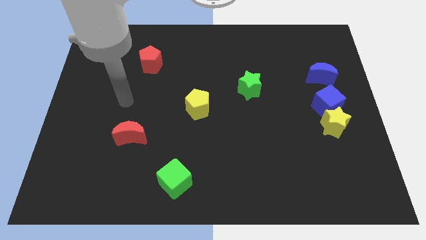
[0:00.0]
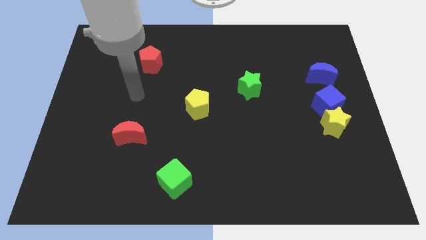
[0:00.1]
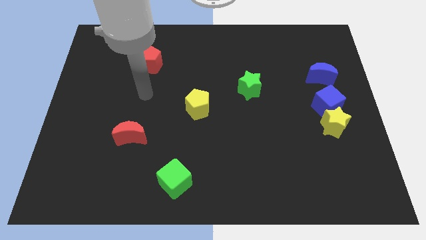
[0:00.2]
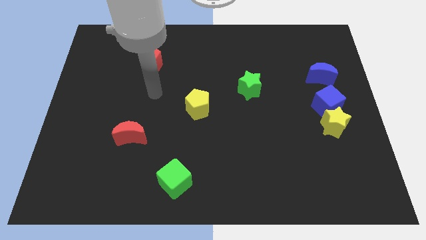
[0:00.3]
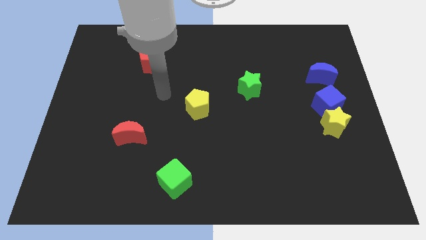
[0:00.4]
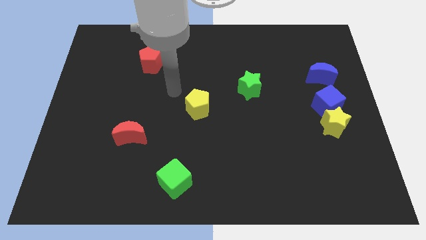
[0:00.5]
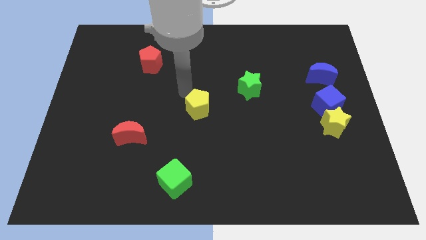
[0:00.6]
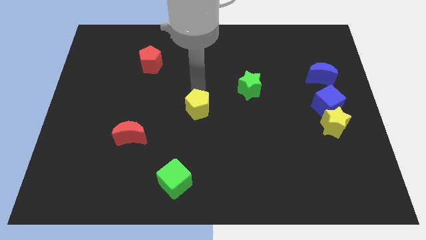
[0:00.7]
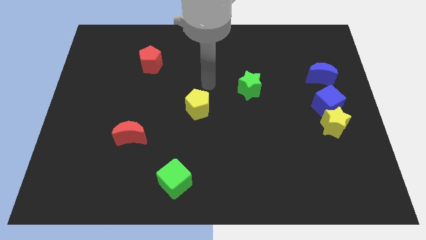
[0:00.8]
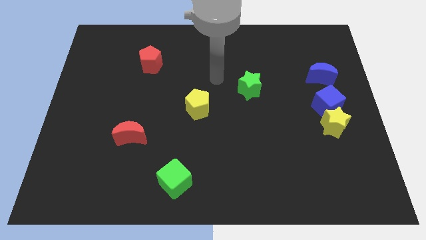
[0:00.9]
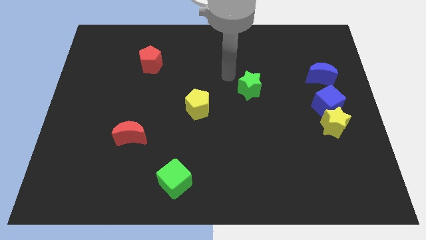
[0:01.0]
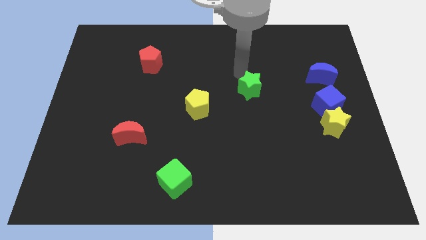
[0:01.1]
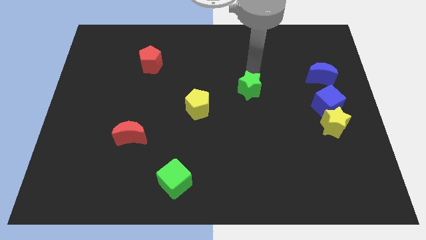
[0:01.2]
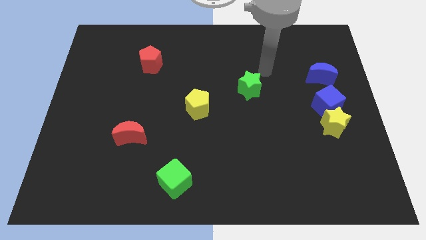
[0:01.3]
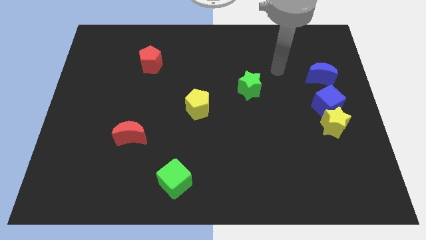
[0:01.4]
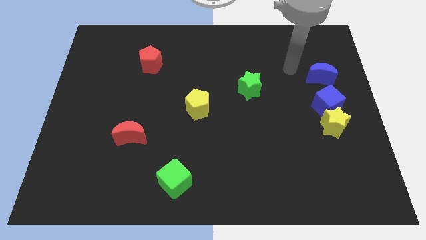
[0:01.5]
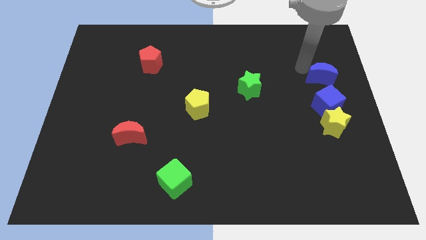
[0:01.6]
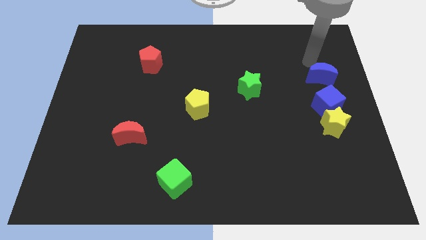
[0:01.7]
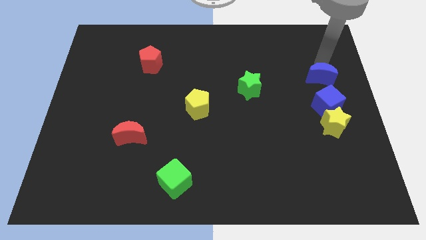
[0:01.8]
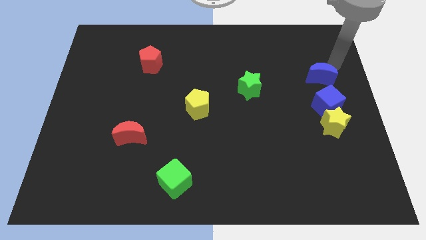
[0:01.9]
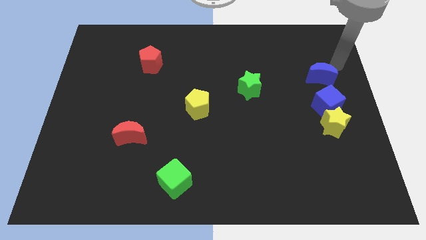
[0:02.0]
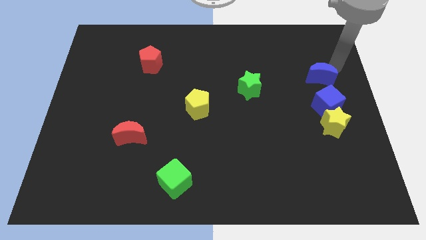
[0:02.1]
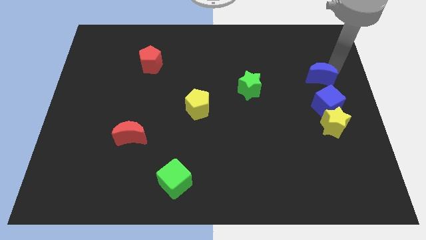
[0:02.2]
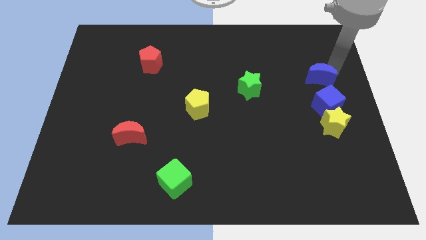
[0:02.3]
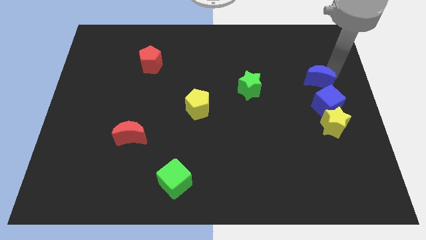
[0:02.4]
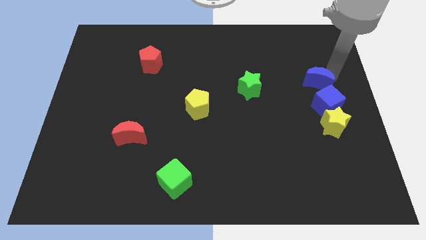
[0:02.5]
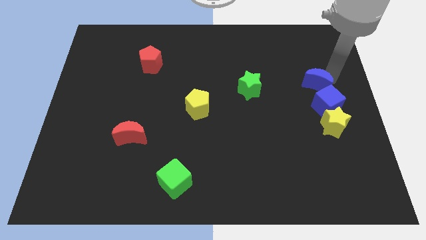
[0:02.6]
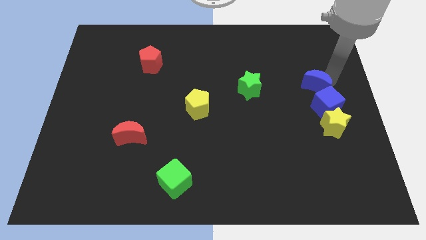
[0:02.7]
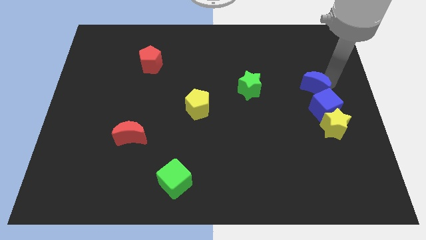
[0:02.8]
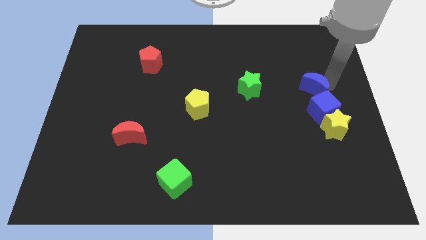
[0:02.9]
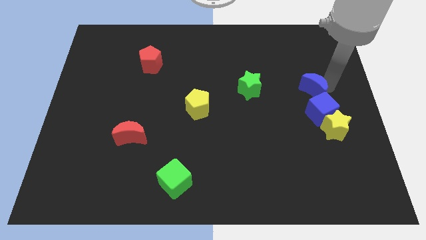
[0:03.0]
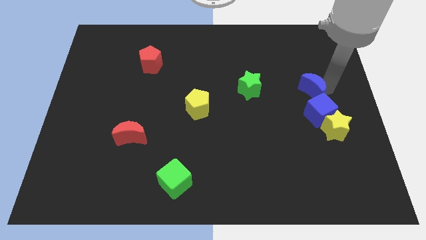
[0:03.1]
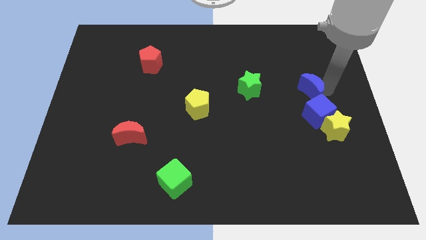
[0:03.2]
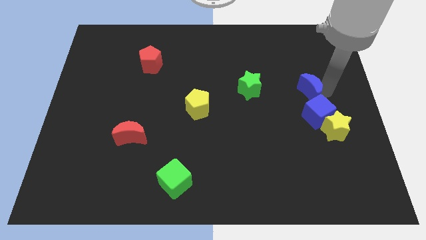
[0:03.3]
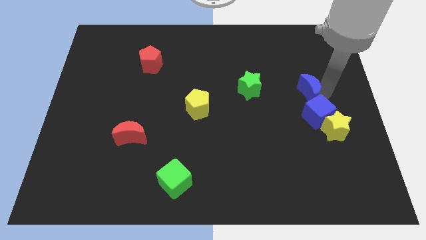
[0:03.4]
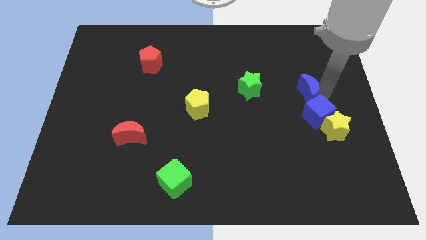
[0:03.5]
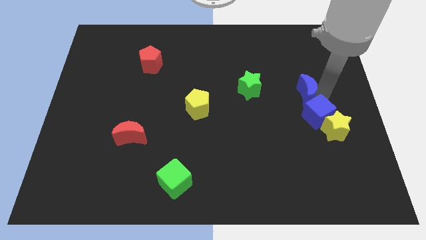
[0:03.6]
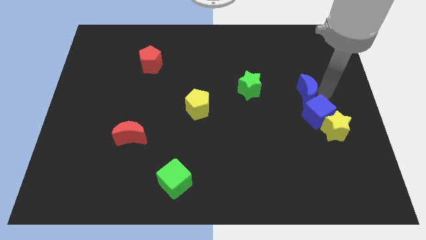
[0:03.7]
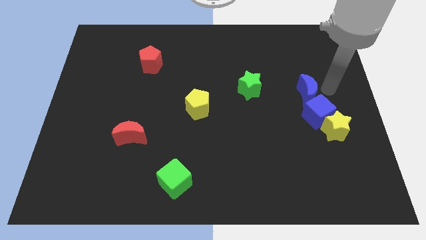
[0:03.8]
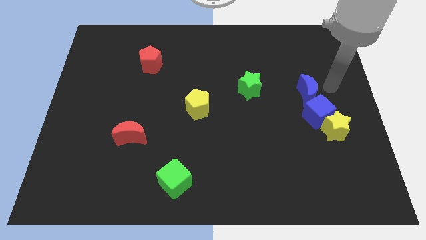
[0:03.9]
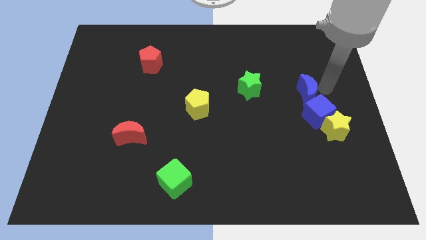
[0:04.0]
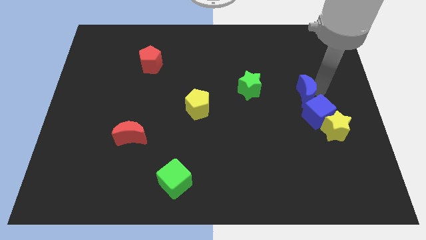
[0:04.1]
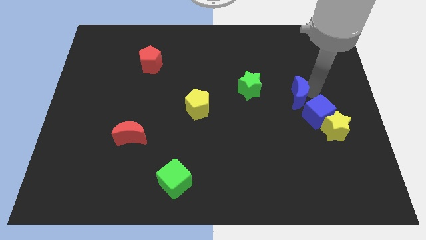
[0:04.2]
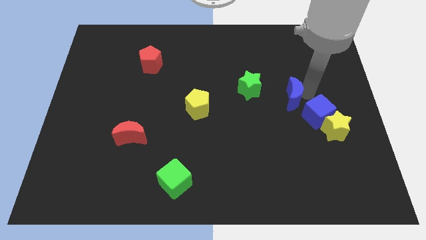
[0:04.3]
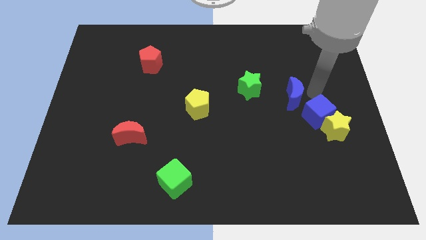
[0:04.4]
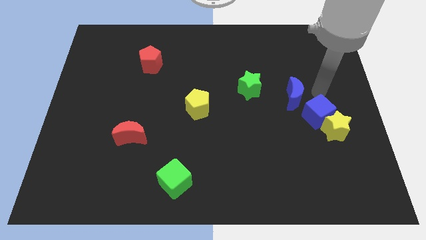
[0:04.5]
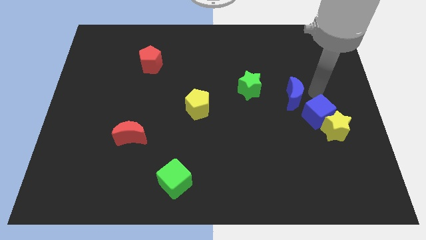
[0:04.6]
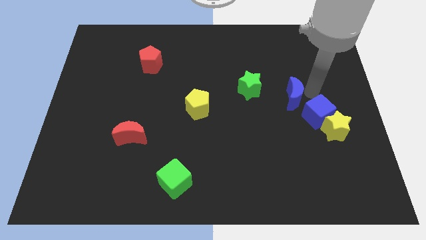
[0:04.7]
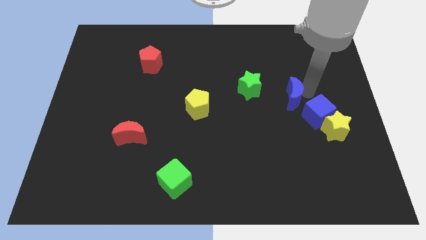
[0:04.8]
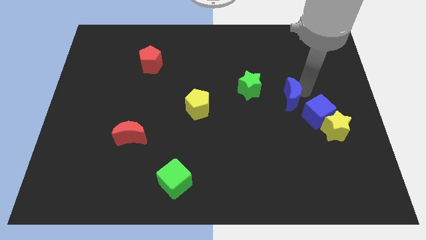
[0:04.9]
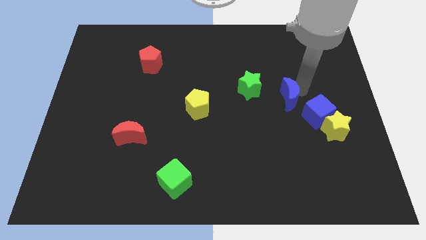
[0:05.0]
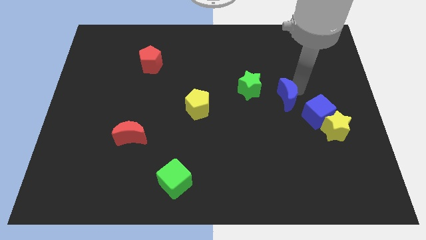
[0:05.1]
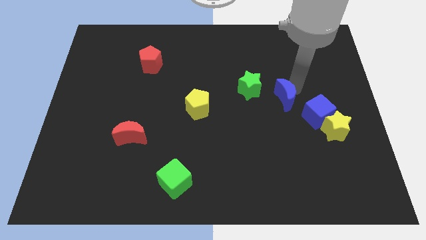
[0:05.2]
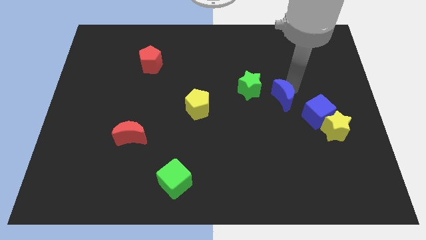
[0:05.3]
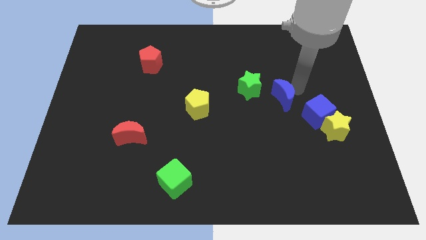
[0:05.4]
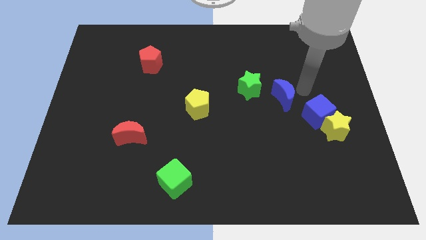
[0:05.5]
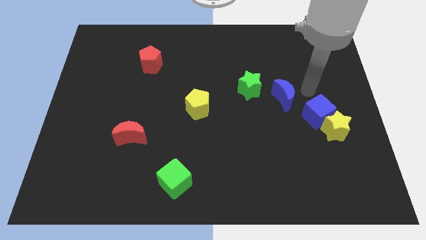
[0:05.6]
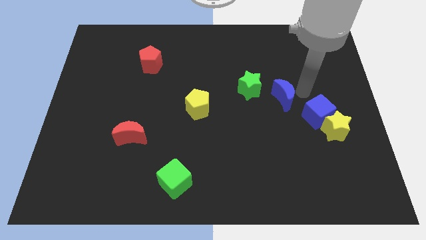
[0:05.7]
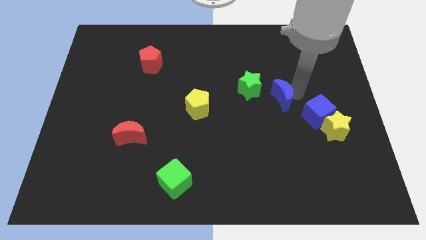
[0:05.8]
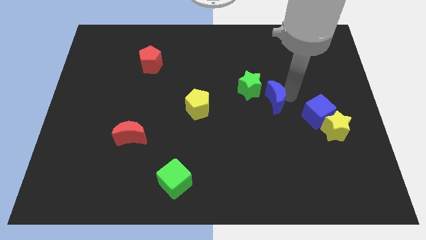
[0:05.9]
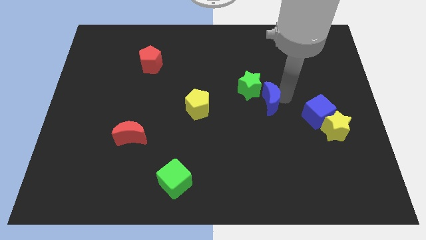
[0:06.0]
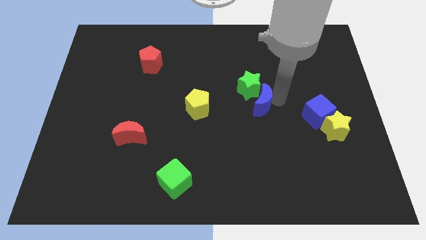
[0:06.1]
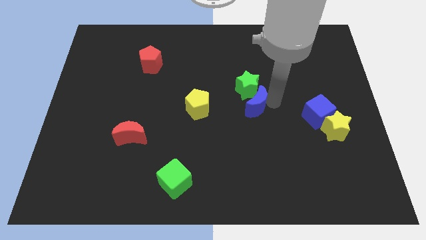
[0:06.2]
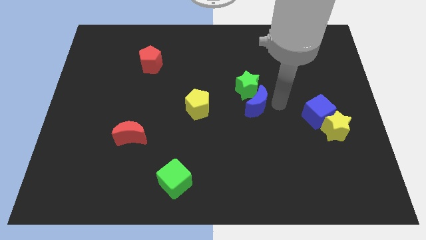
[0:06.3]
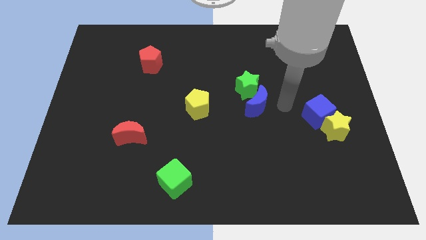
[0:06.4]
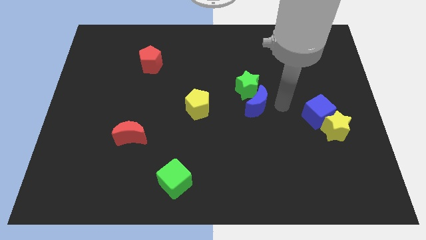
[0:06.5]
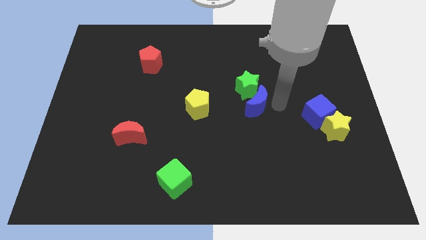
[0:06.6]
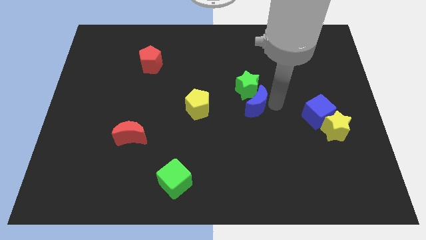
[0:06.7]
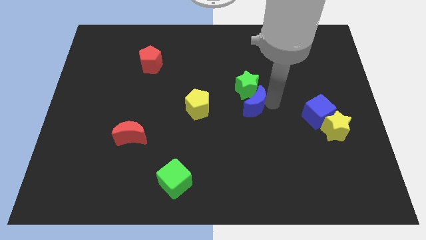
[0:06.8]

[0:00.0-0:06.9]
push the blue moon to the bottom left of the green star

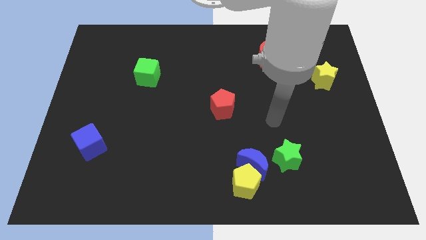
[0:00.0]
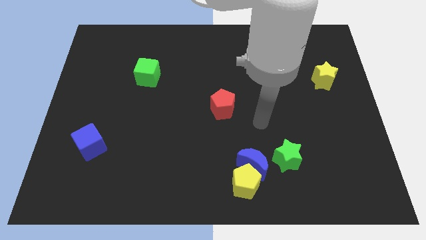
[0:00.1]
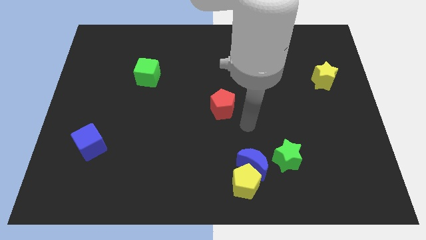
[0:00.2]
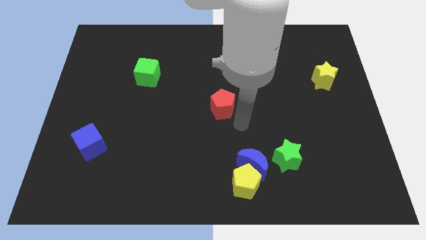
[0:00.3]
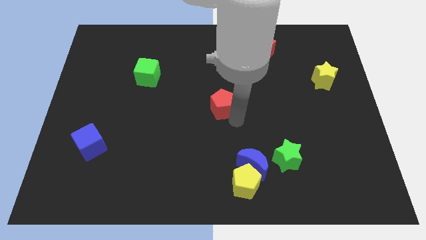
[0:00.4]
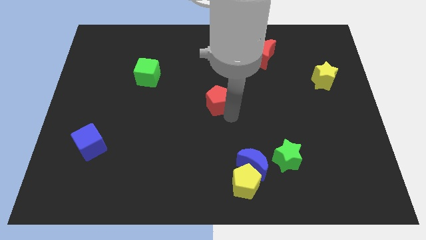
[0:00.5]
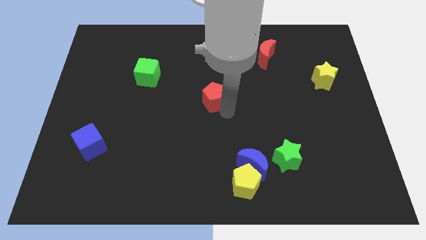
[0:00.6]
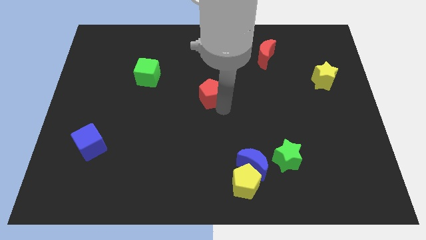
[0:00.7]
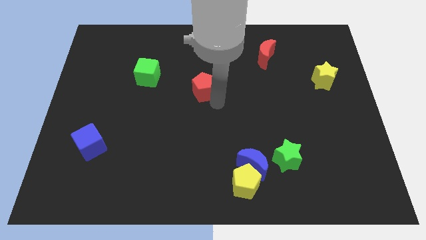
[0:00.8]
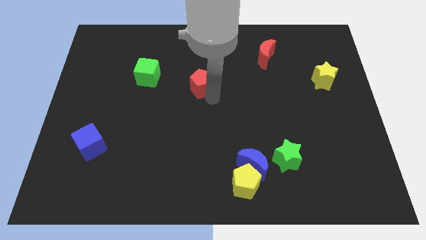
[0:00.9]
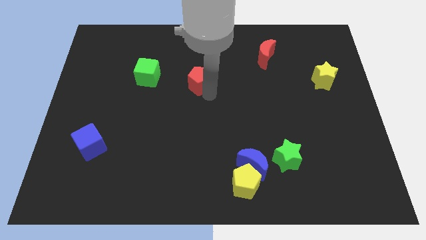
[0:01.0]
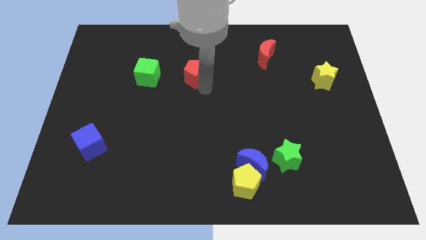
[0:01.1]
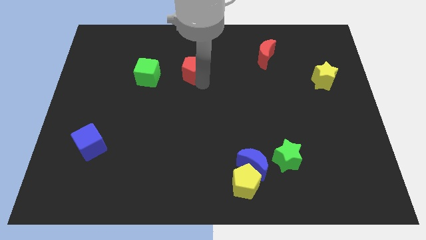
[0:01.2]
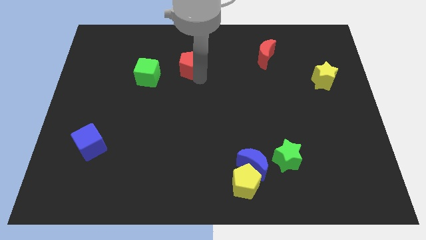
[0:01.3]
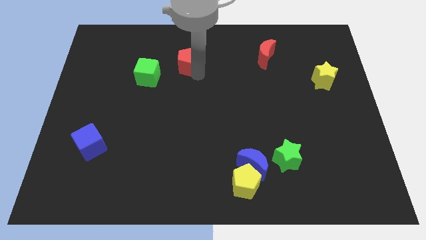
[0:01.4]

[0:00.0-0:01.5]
push the red pentagon diagonally up and to the right of the green cube
